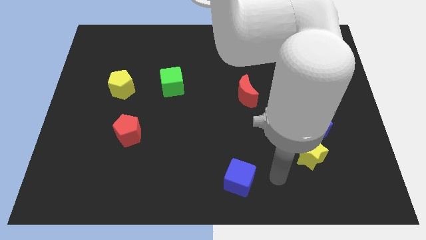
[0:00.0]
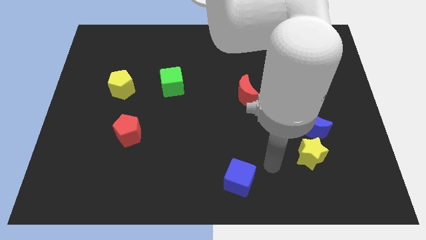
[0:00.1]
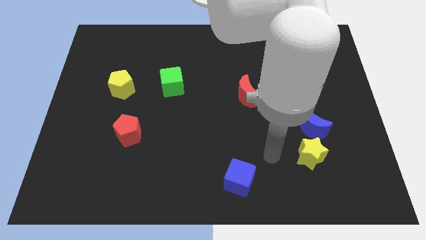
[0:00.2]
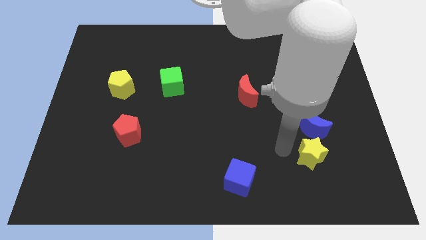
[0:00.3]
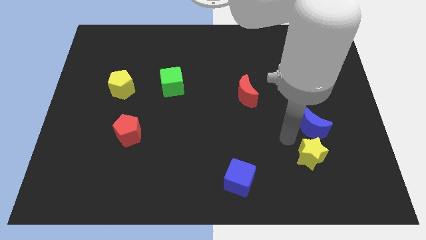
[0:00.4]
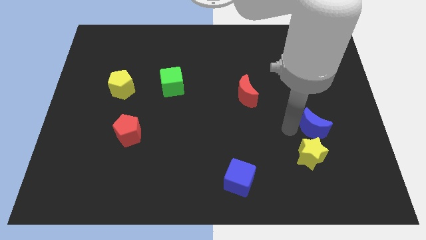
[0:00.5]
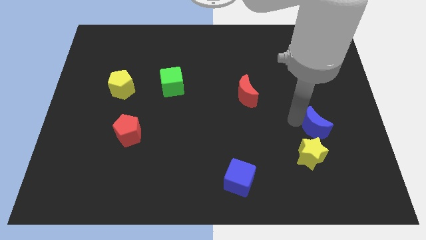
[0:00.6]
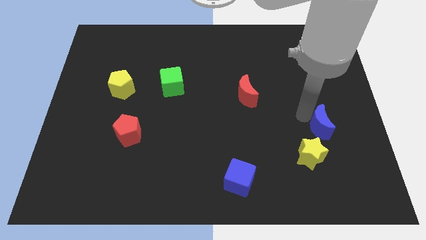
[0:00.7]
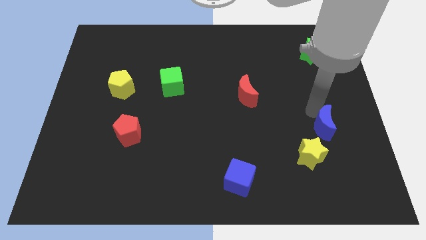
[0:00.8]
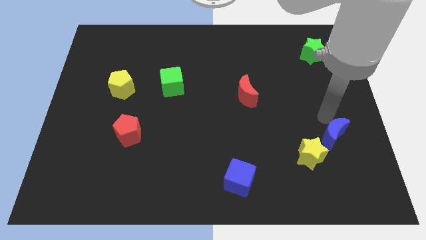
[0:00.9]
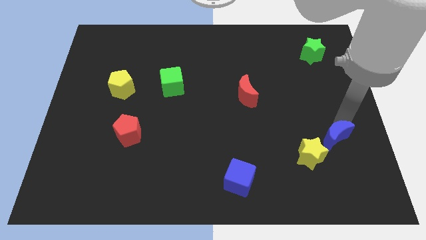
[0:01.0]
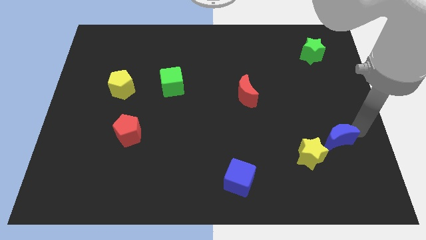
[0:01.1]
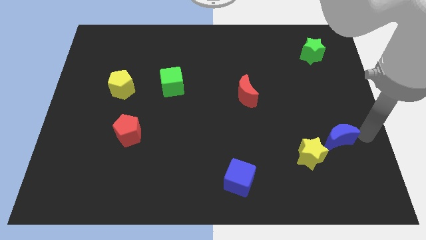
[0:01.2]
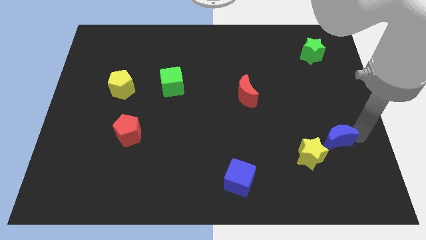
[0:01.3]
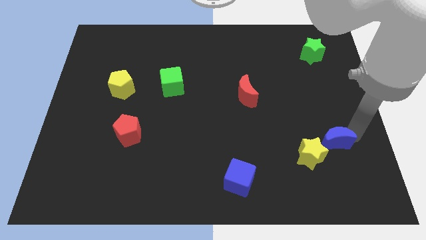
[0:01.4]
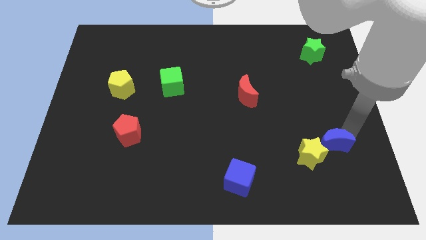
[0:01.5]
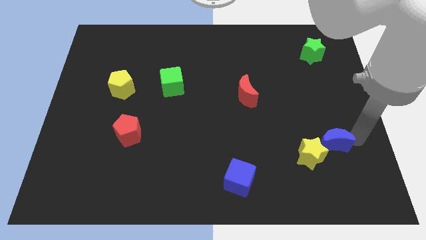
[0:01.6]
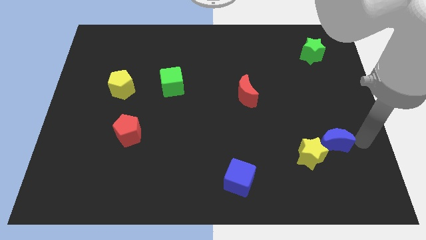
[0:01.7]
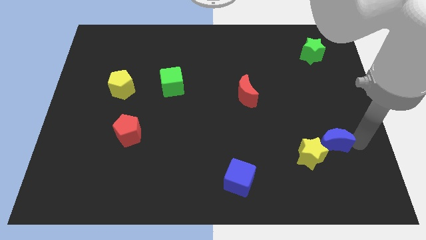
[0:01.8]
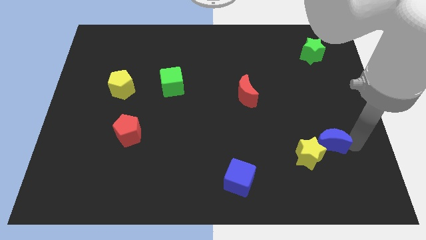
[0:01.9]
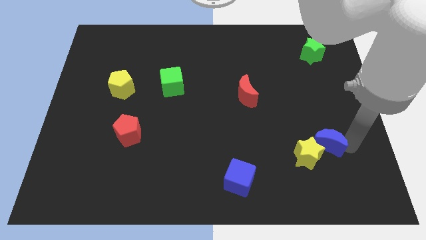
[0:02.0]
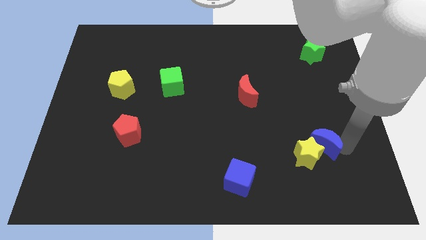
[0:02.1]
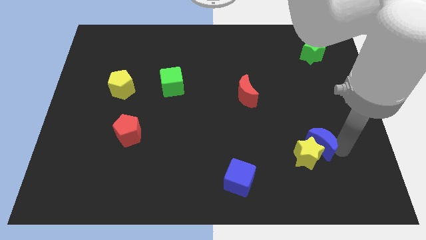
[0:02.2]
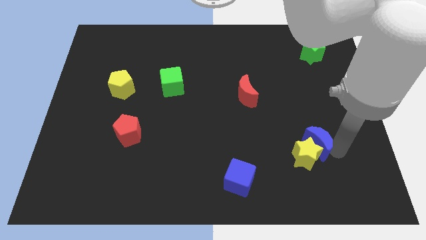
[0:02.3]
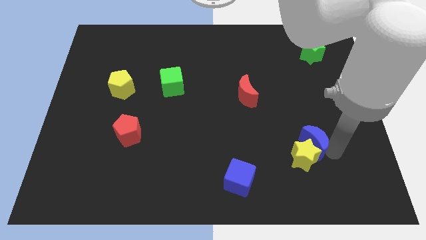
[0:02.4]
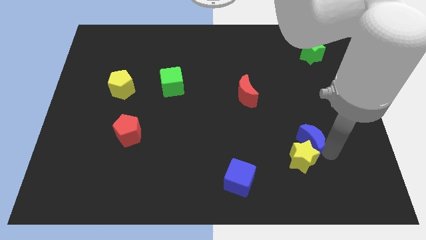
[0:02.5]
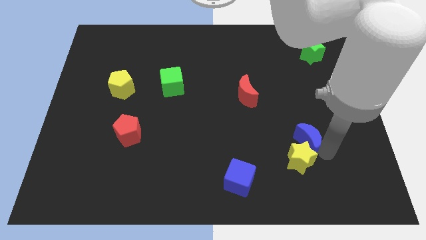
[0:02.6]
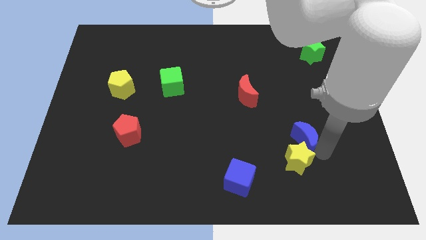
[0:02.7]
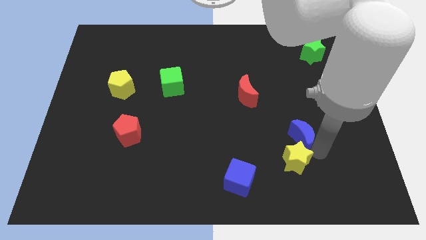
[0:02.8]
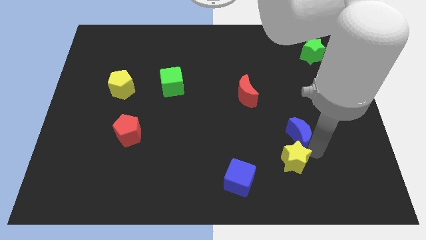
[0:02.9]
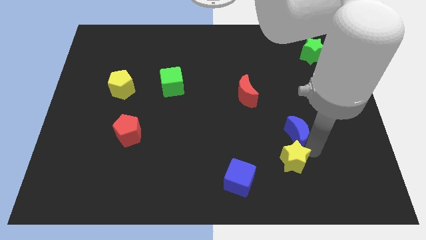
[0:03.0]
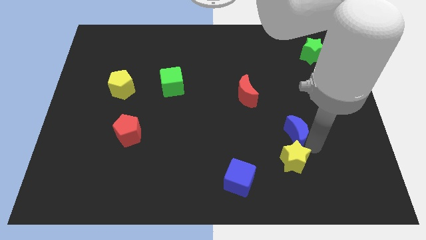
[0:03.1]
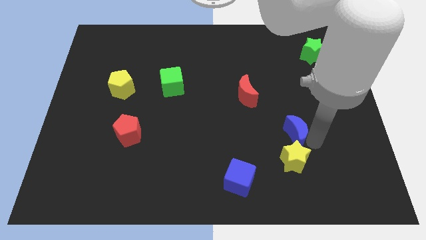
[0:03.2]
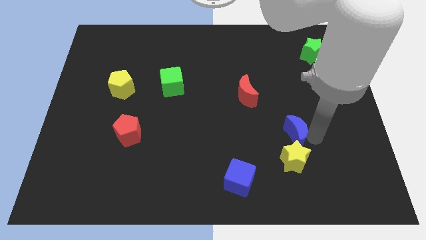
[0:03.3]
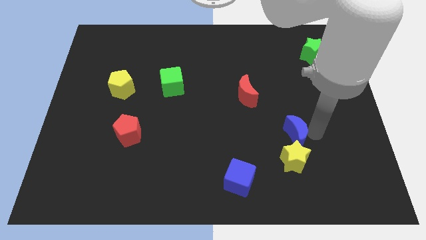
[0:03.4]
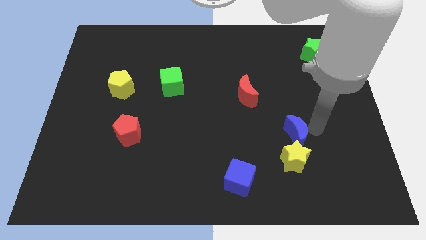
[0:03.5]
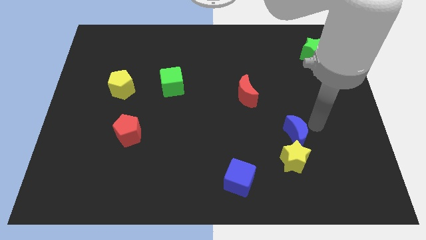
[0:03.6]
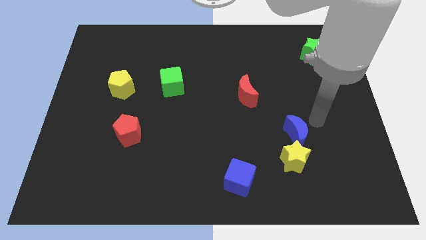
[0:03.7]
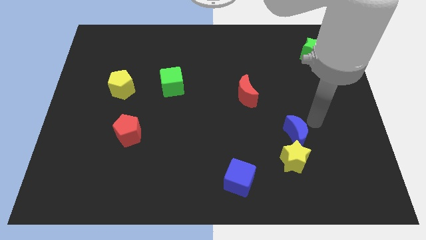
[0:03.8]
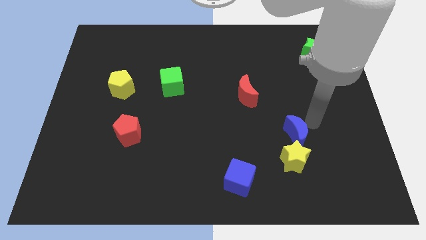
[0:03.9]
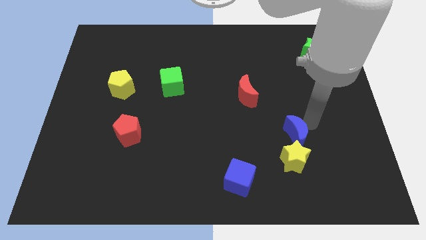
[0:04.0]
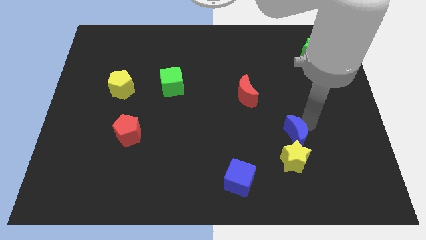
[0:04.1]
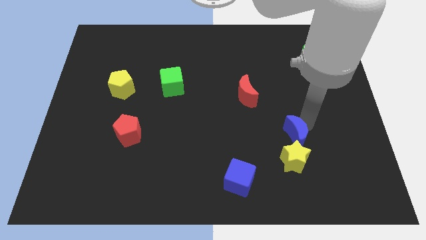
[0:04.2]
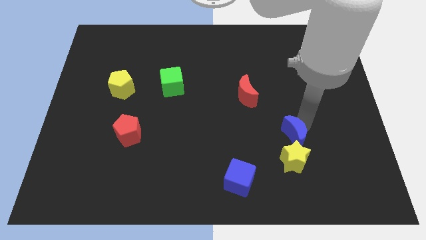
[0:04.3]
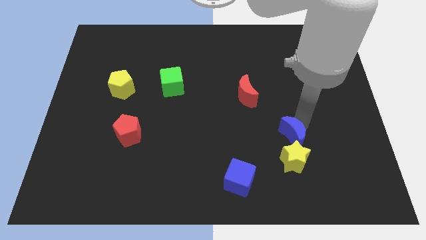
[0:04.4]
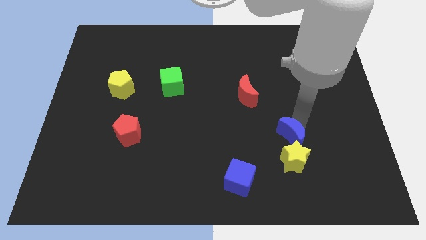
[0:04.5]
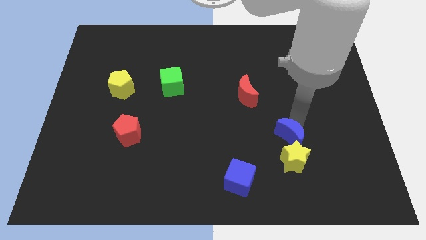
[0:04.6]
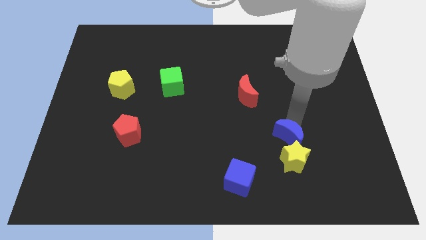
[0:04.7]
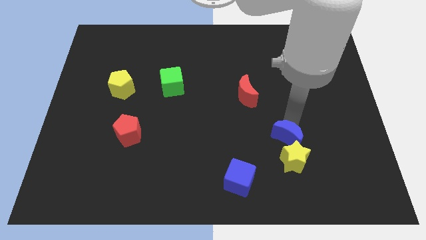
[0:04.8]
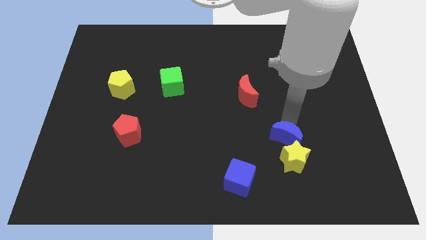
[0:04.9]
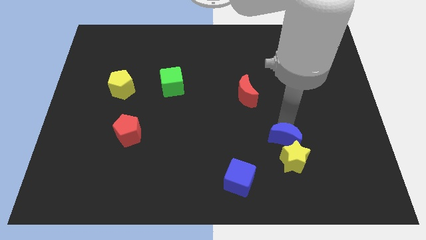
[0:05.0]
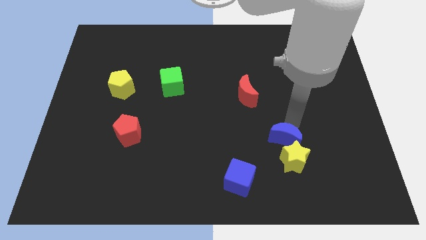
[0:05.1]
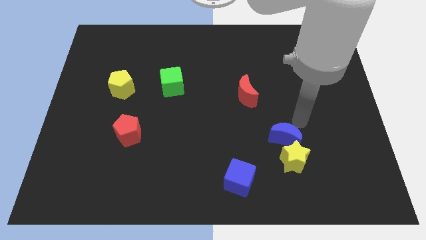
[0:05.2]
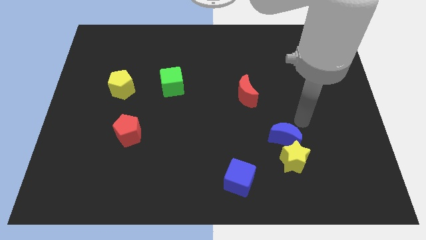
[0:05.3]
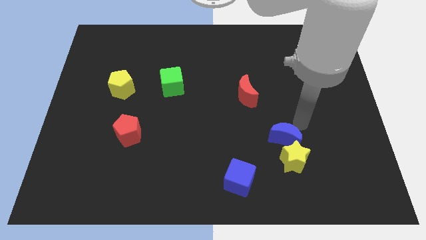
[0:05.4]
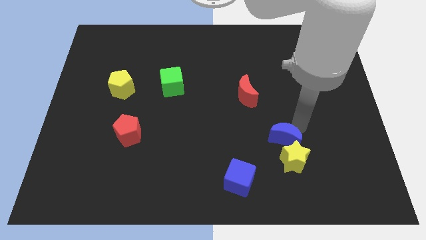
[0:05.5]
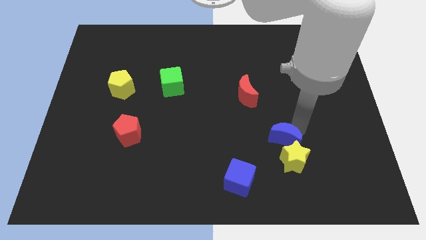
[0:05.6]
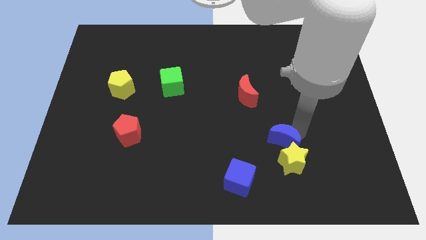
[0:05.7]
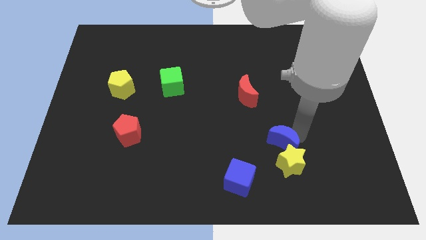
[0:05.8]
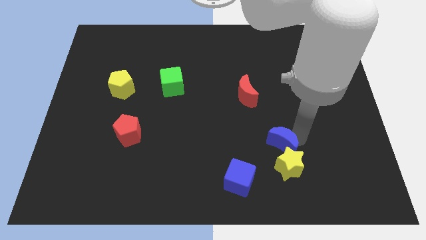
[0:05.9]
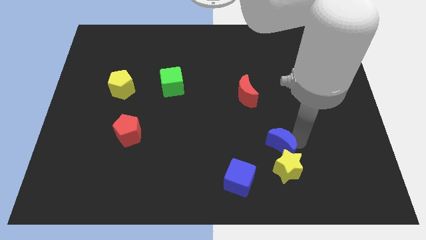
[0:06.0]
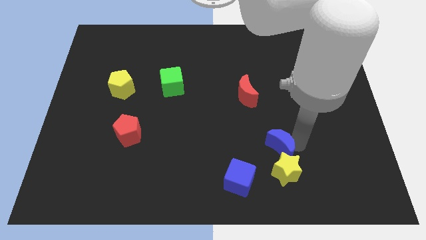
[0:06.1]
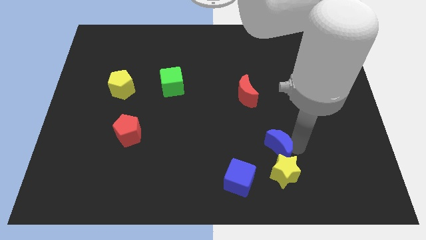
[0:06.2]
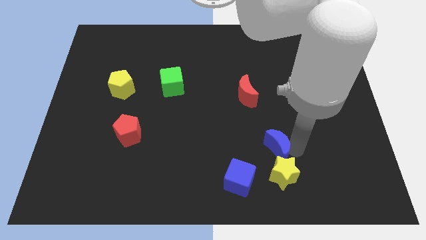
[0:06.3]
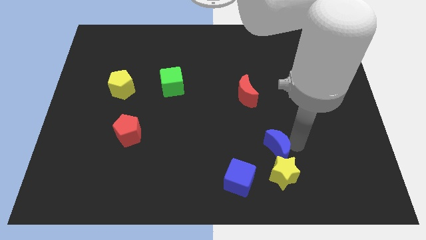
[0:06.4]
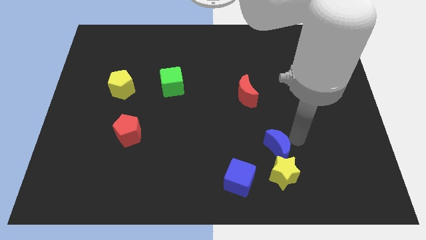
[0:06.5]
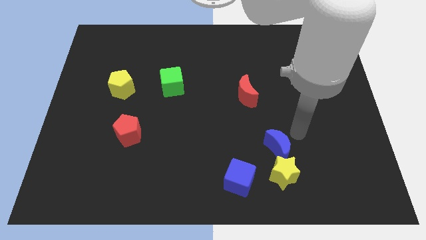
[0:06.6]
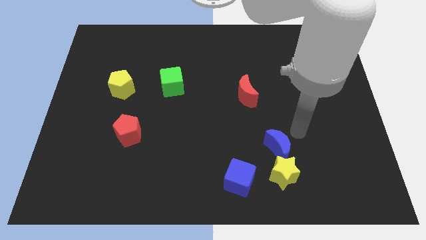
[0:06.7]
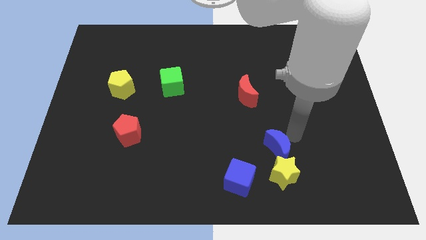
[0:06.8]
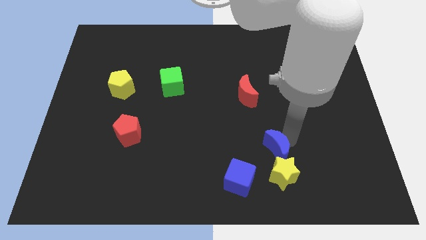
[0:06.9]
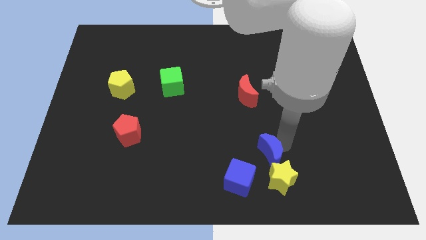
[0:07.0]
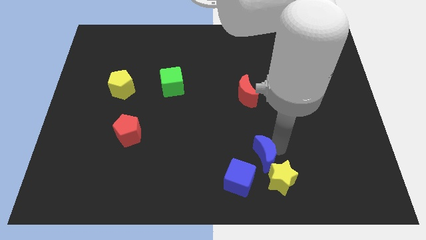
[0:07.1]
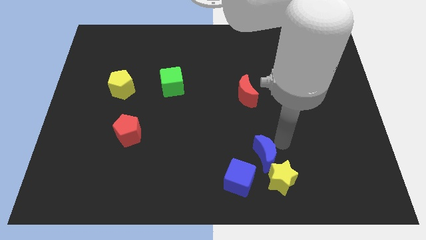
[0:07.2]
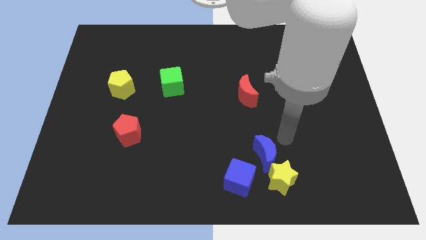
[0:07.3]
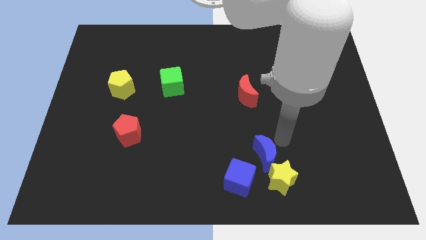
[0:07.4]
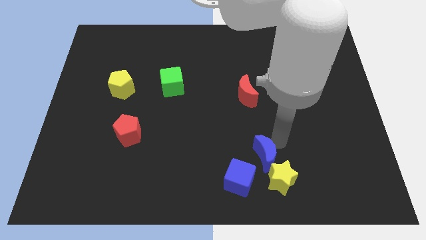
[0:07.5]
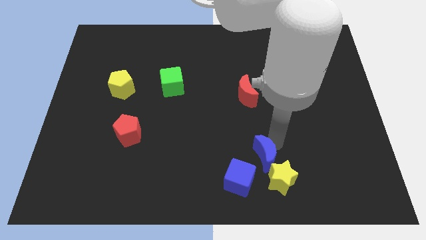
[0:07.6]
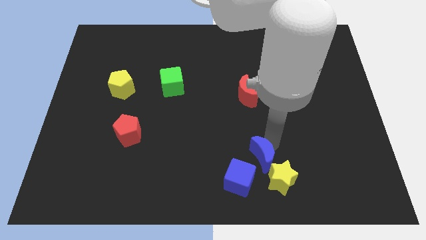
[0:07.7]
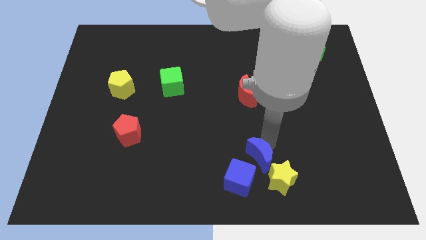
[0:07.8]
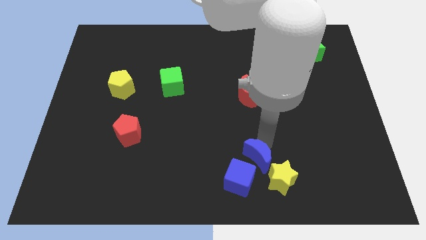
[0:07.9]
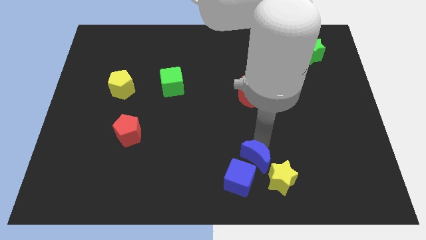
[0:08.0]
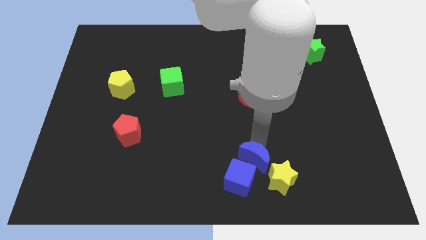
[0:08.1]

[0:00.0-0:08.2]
push the blue moon close to the blue cube
